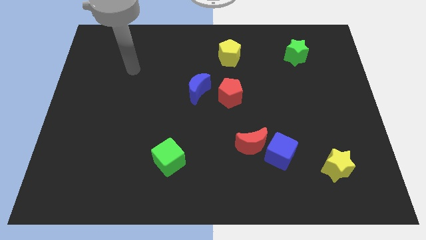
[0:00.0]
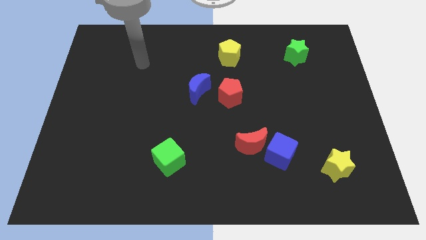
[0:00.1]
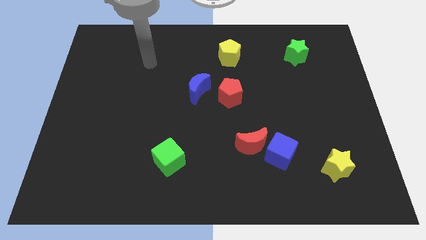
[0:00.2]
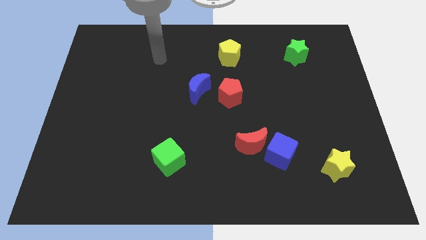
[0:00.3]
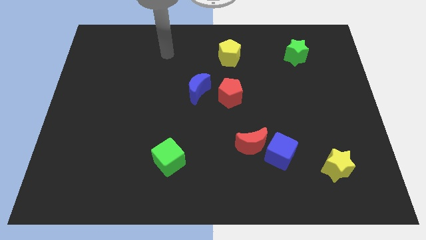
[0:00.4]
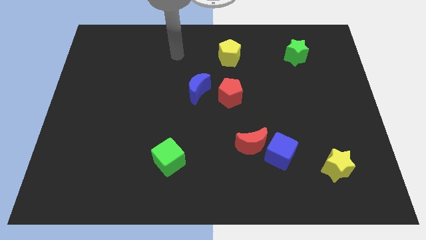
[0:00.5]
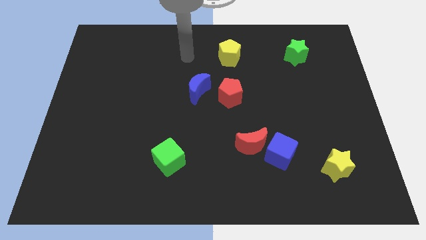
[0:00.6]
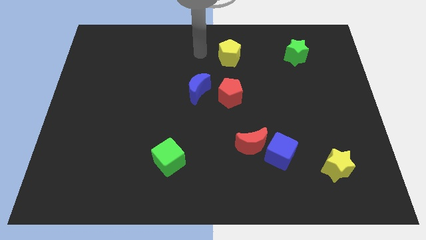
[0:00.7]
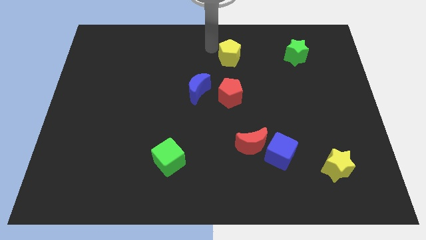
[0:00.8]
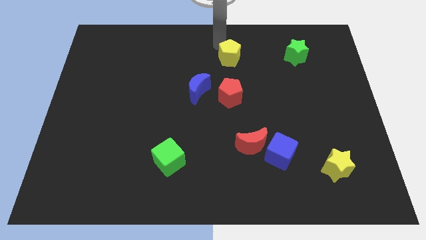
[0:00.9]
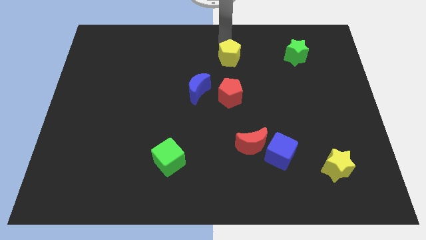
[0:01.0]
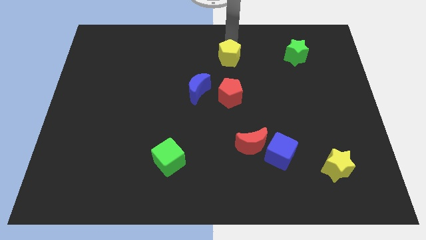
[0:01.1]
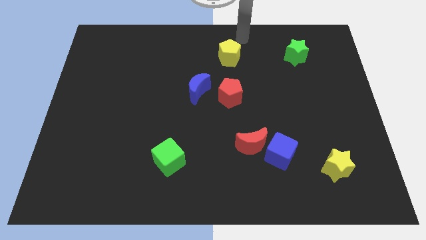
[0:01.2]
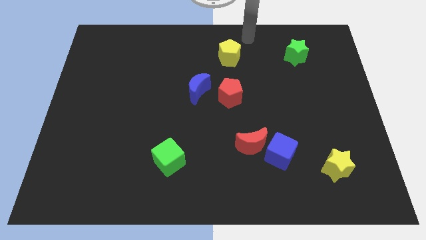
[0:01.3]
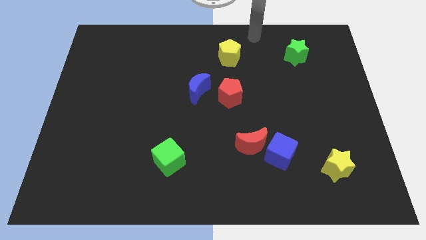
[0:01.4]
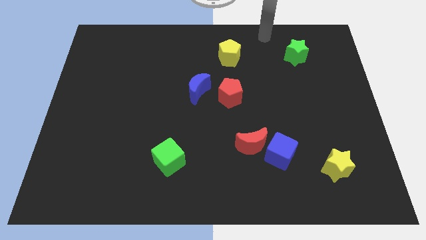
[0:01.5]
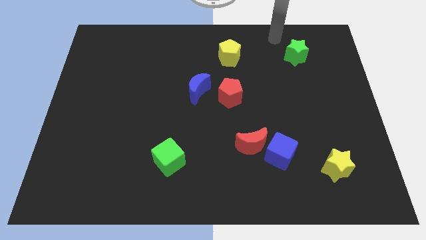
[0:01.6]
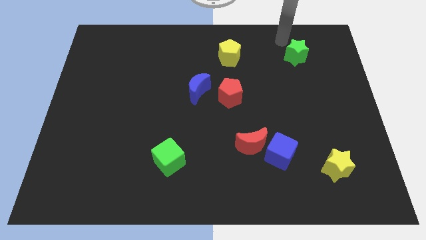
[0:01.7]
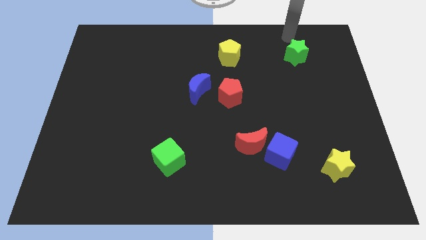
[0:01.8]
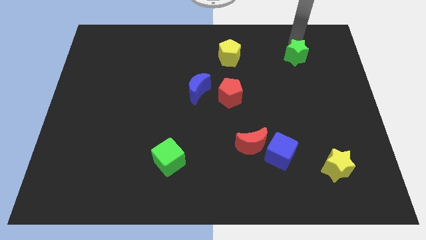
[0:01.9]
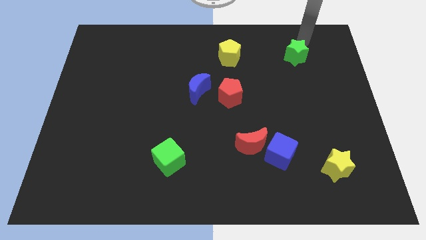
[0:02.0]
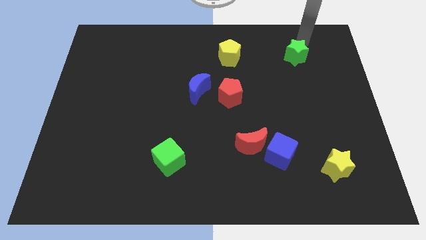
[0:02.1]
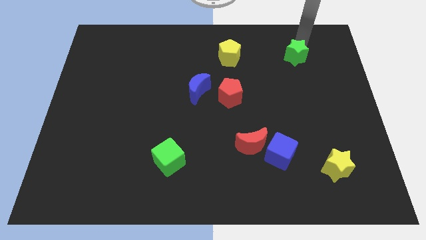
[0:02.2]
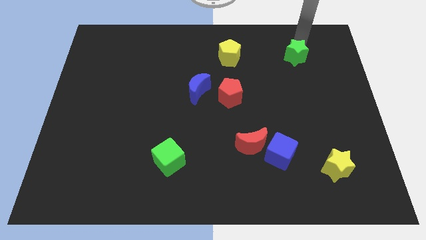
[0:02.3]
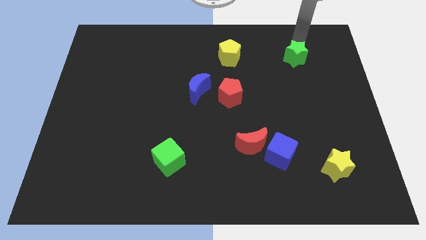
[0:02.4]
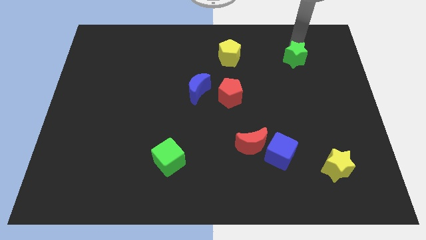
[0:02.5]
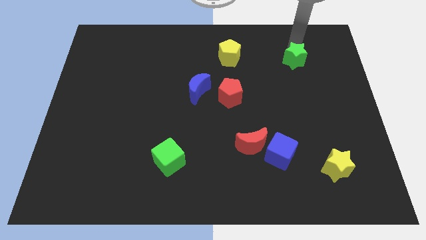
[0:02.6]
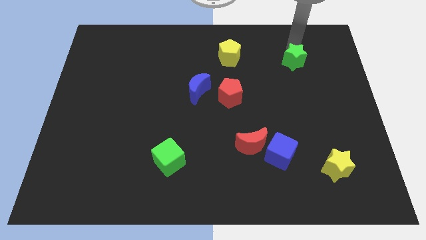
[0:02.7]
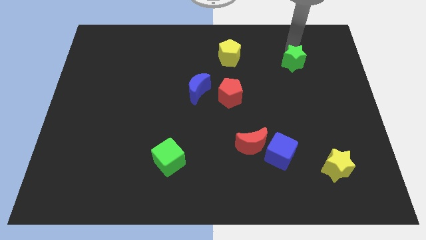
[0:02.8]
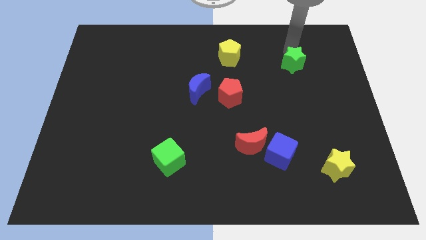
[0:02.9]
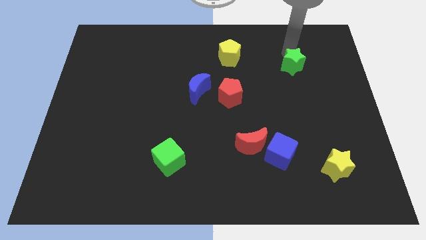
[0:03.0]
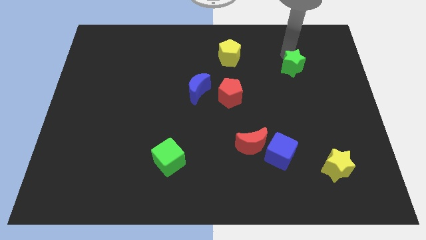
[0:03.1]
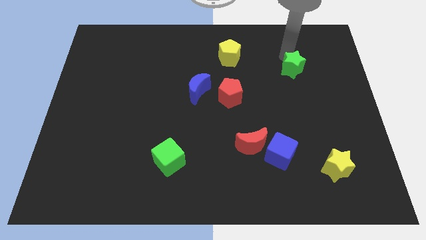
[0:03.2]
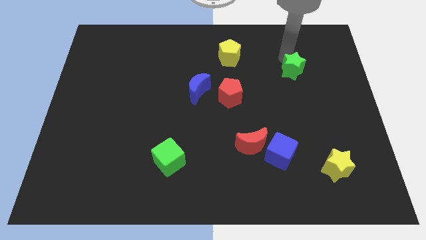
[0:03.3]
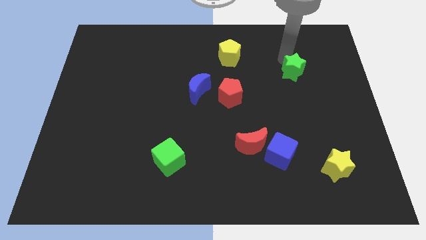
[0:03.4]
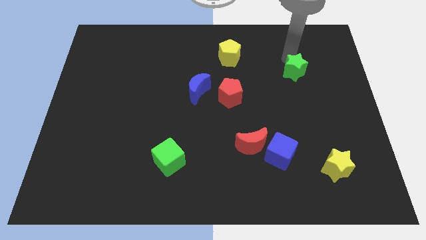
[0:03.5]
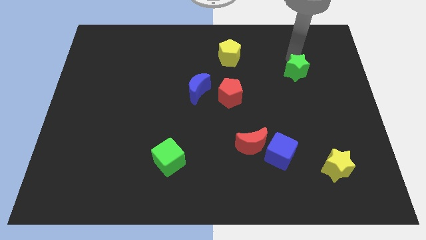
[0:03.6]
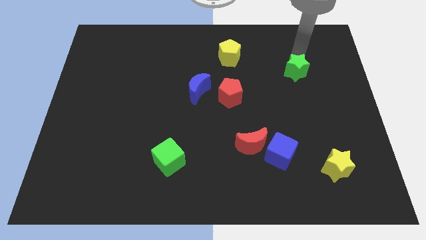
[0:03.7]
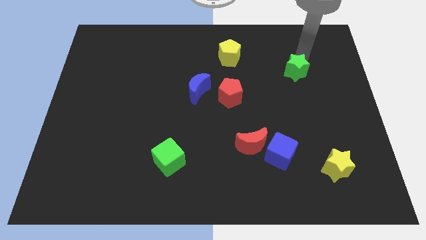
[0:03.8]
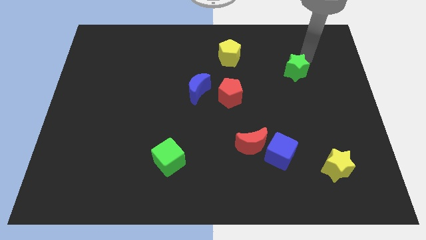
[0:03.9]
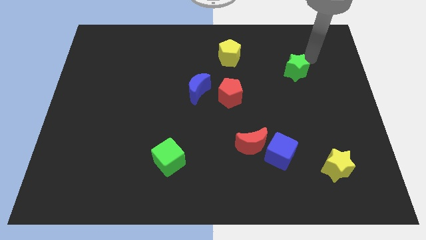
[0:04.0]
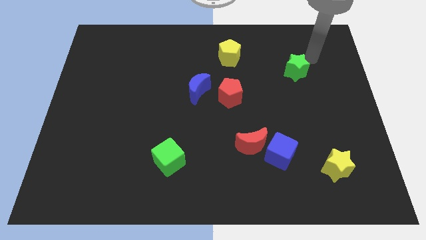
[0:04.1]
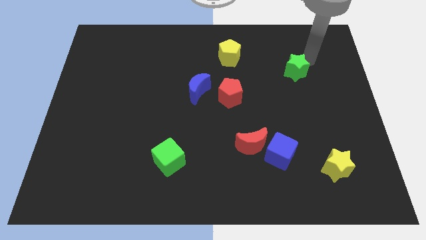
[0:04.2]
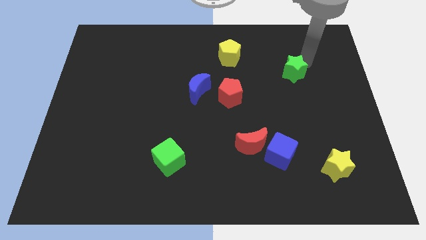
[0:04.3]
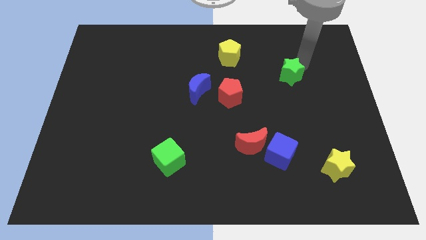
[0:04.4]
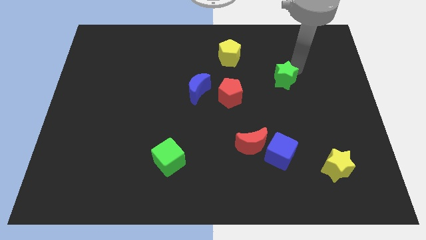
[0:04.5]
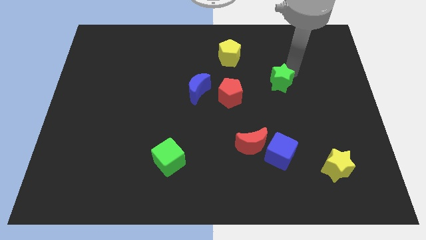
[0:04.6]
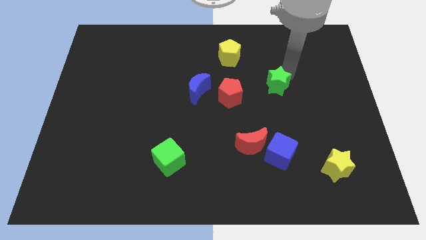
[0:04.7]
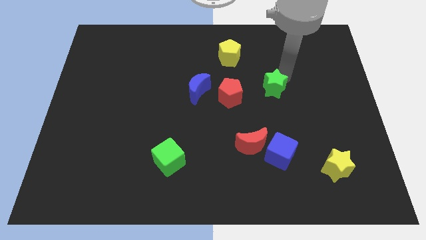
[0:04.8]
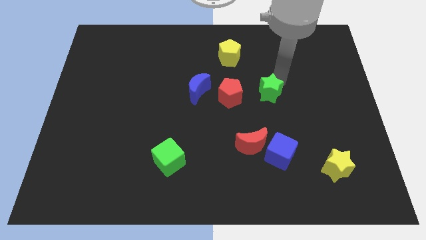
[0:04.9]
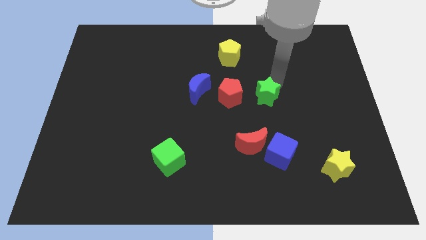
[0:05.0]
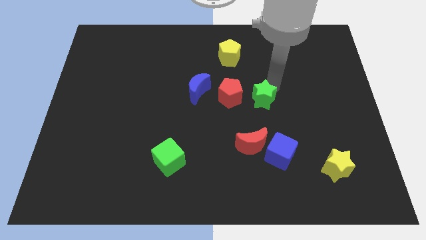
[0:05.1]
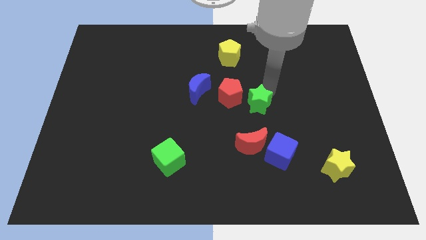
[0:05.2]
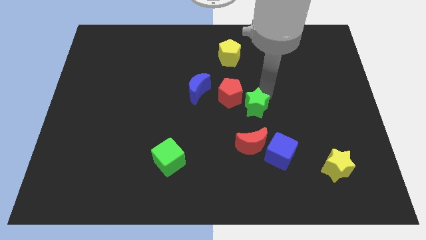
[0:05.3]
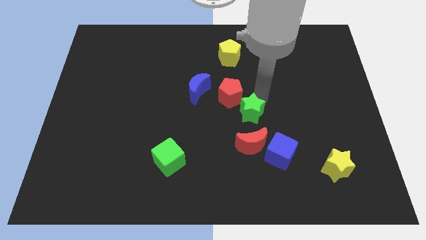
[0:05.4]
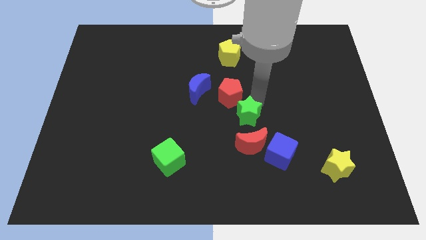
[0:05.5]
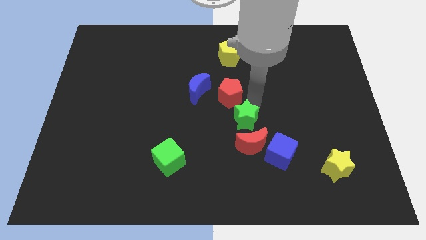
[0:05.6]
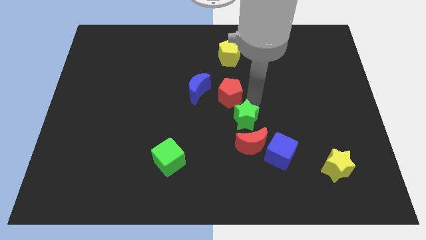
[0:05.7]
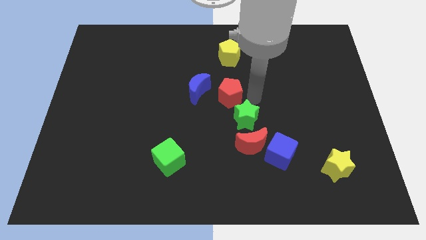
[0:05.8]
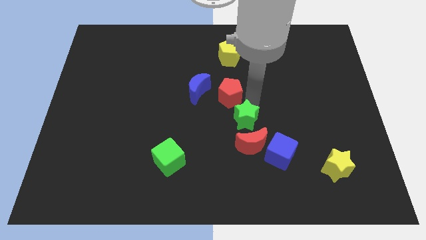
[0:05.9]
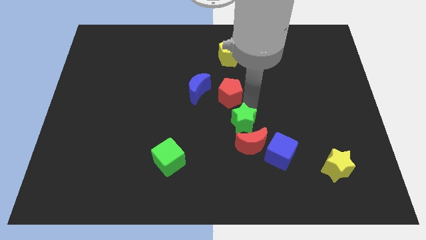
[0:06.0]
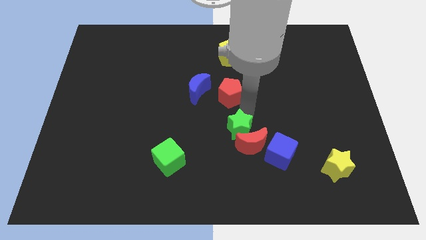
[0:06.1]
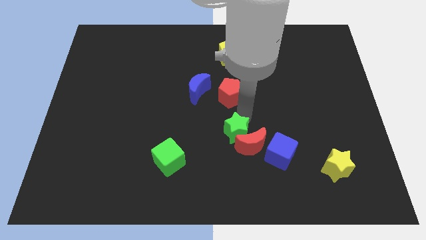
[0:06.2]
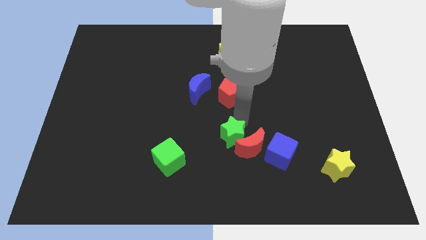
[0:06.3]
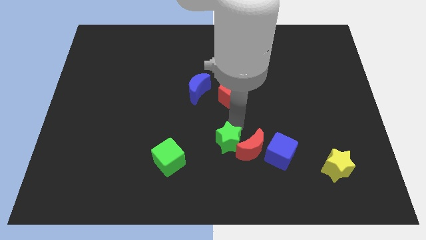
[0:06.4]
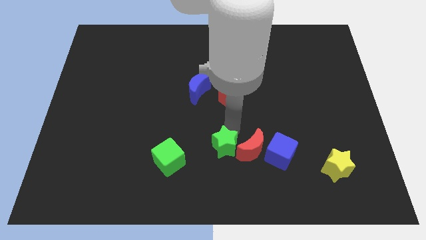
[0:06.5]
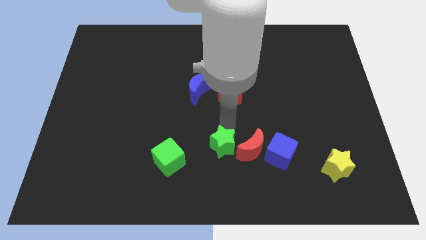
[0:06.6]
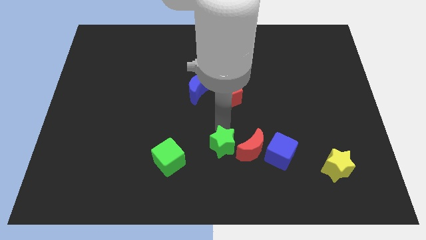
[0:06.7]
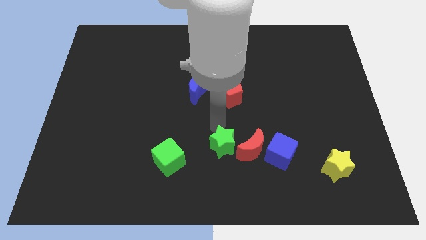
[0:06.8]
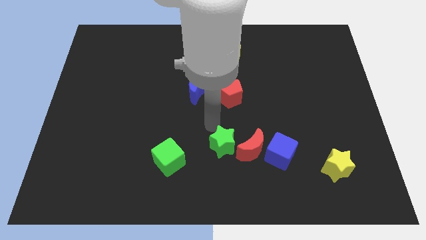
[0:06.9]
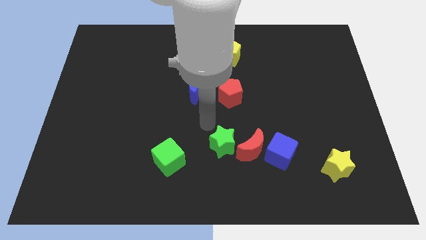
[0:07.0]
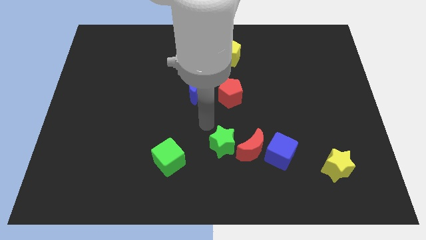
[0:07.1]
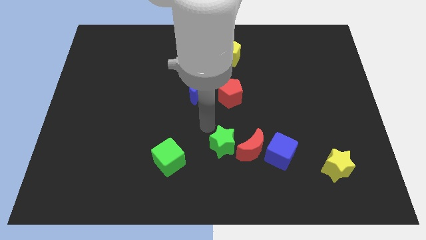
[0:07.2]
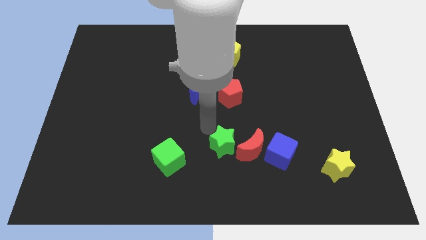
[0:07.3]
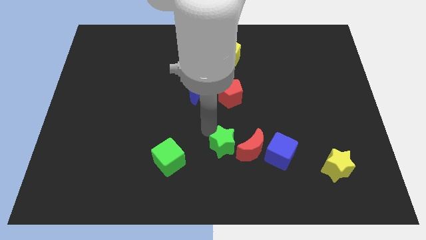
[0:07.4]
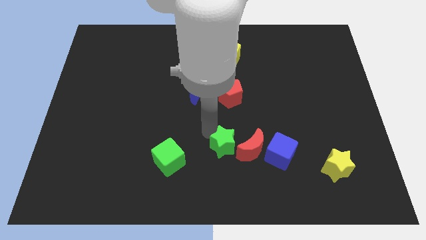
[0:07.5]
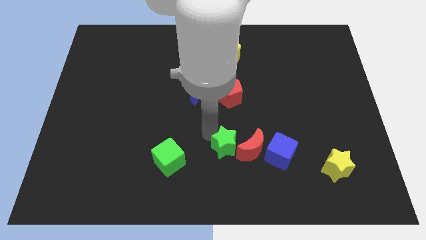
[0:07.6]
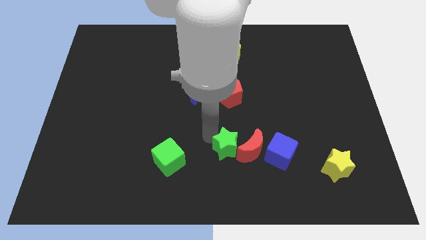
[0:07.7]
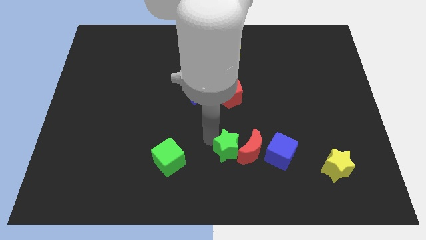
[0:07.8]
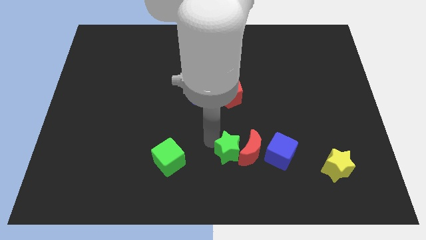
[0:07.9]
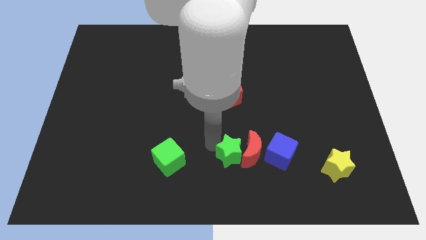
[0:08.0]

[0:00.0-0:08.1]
push the green star to the bottom

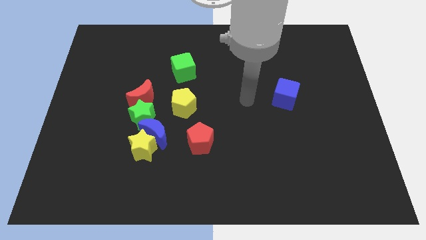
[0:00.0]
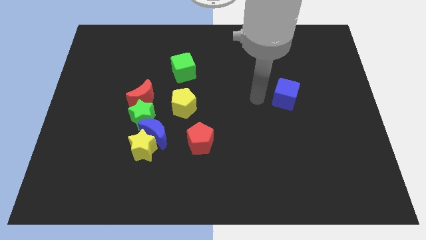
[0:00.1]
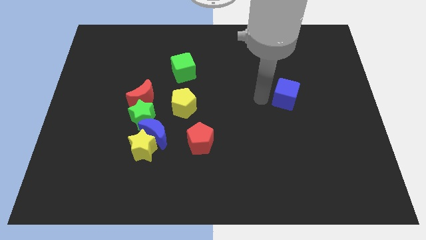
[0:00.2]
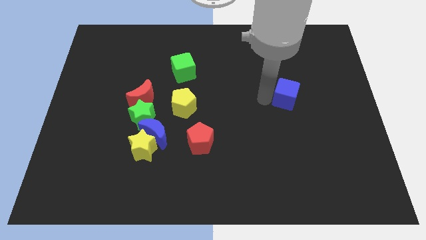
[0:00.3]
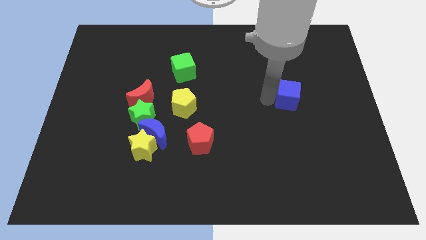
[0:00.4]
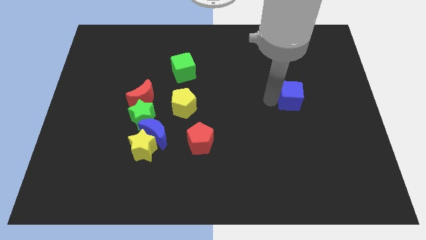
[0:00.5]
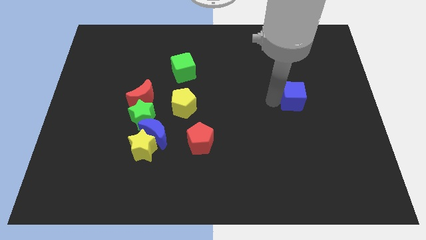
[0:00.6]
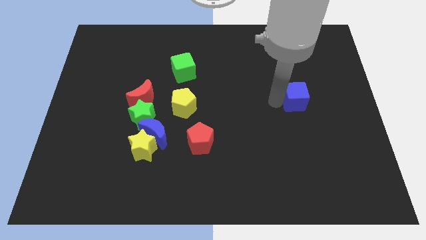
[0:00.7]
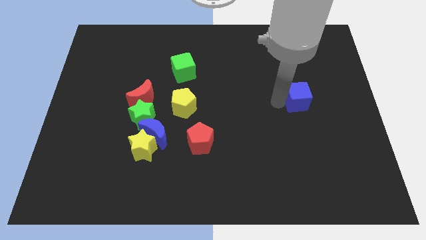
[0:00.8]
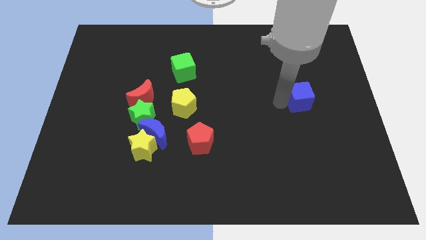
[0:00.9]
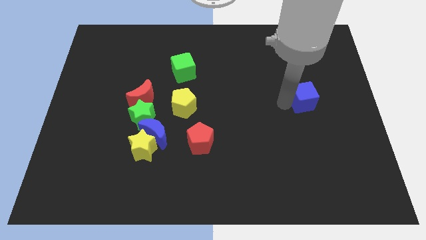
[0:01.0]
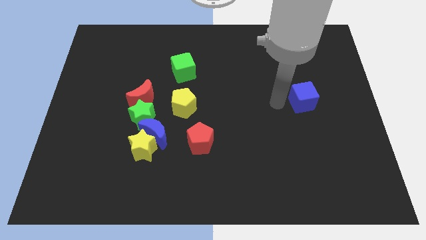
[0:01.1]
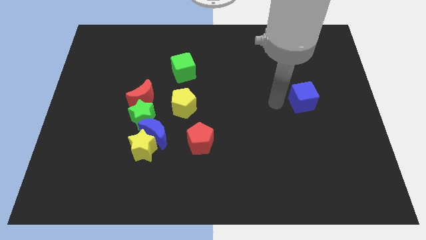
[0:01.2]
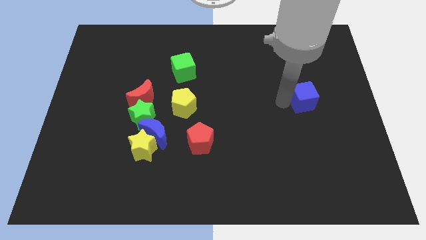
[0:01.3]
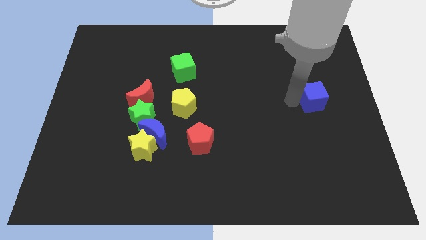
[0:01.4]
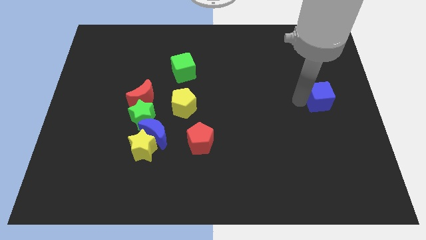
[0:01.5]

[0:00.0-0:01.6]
put the blue cube to the right side of the board
